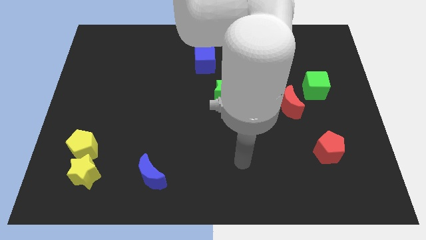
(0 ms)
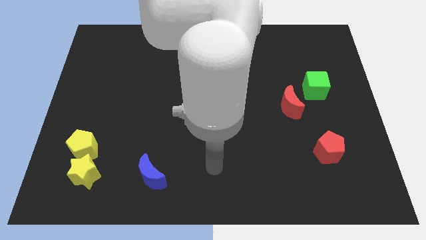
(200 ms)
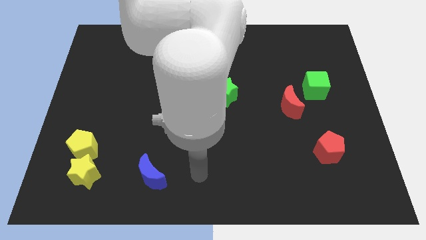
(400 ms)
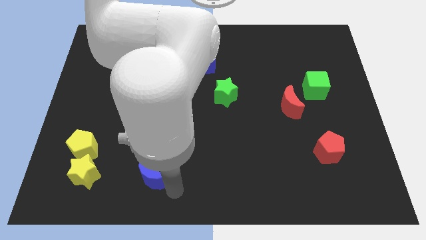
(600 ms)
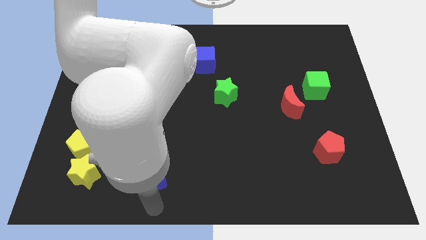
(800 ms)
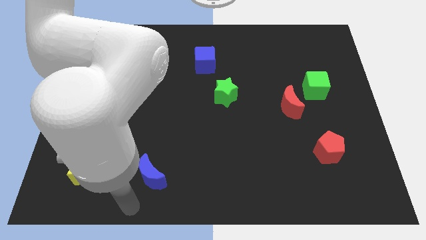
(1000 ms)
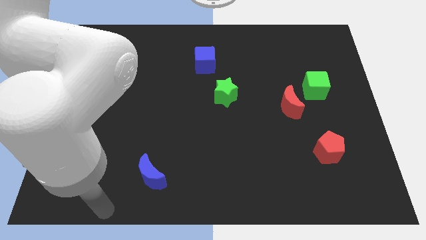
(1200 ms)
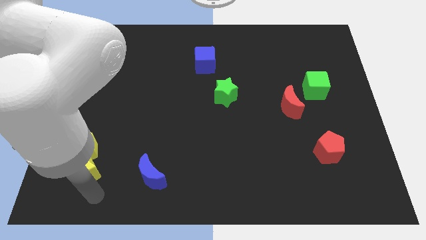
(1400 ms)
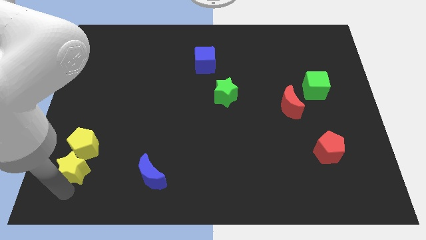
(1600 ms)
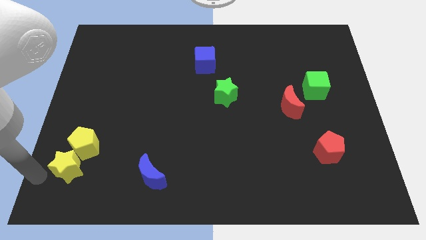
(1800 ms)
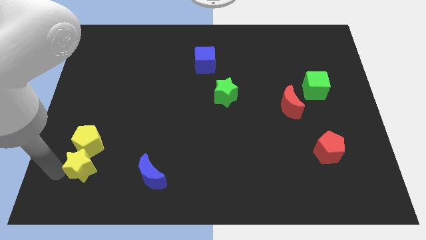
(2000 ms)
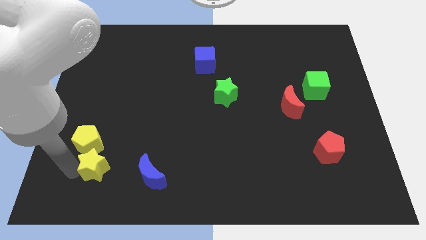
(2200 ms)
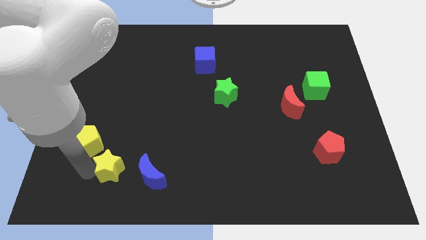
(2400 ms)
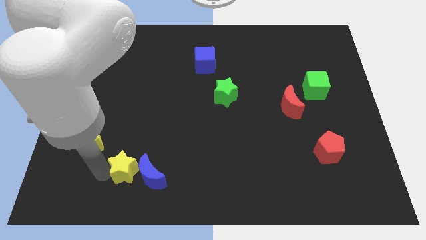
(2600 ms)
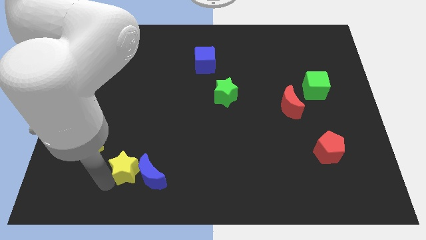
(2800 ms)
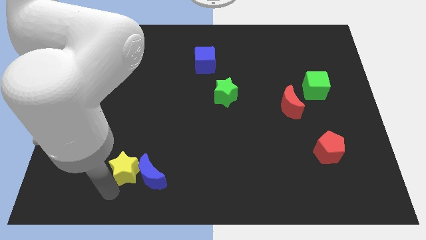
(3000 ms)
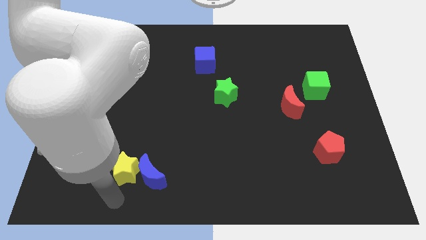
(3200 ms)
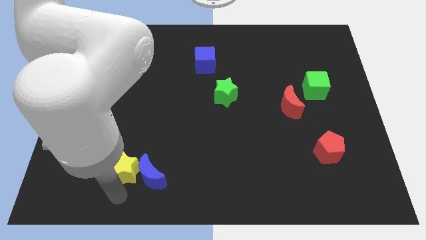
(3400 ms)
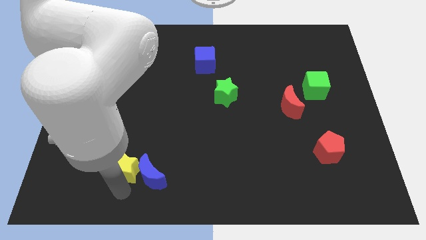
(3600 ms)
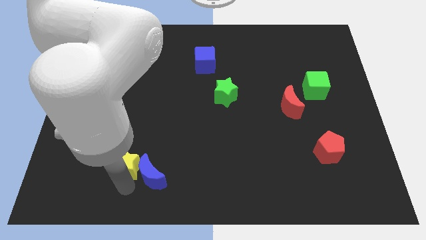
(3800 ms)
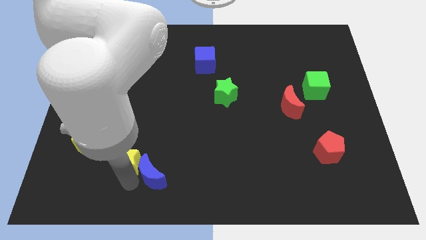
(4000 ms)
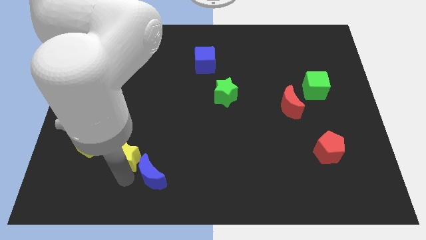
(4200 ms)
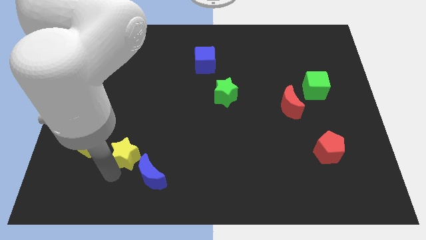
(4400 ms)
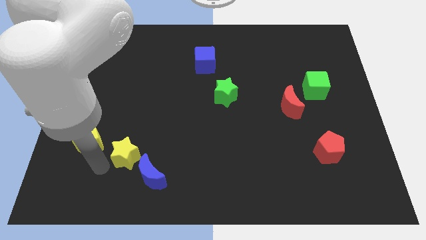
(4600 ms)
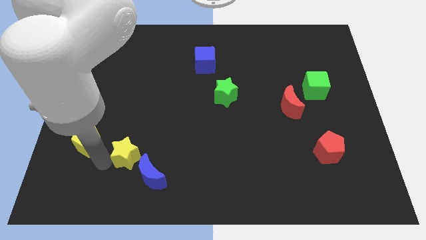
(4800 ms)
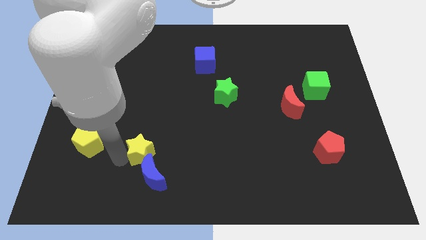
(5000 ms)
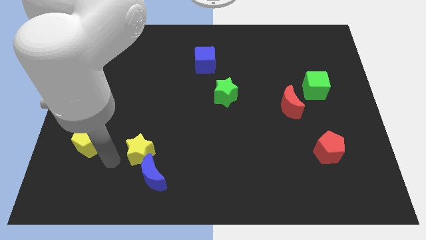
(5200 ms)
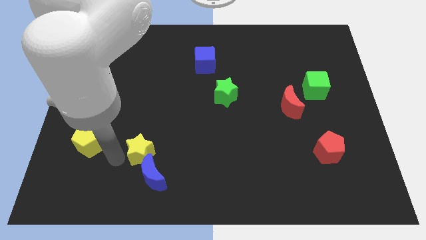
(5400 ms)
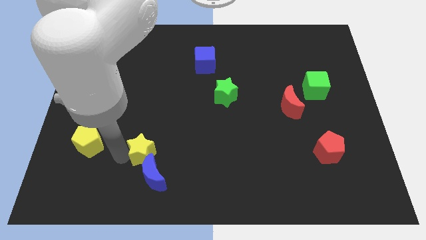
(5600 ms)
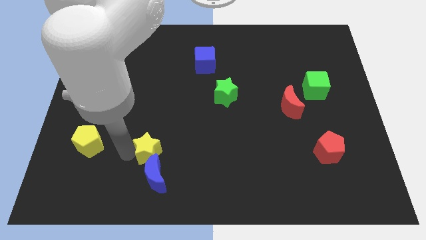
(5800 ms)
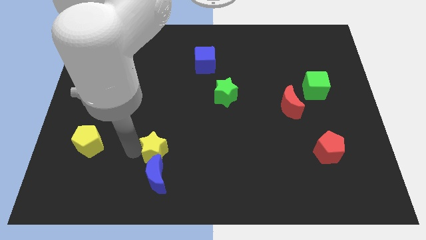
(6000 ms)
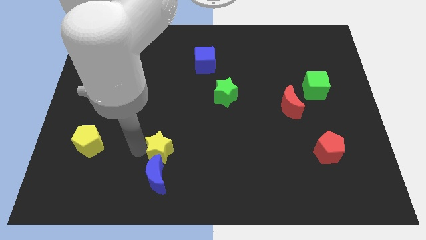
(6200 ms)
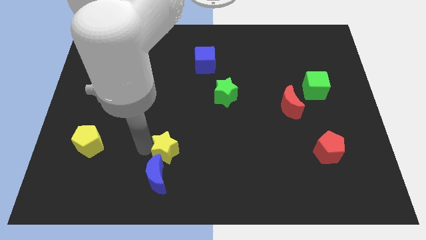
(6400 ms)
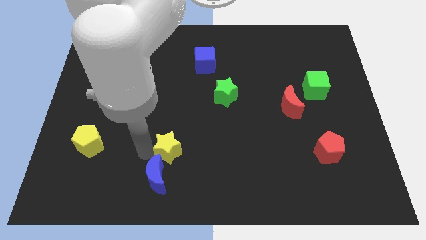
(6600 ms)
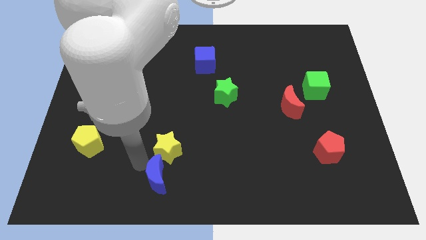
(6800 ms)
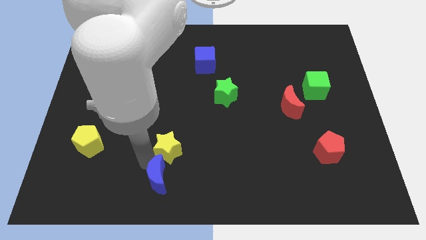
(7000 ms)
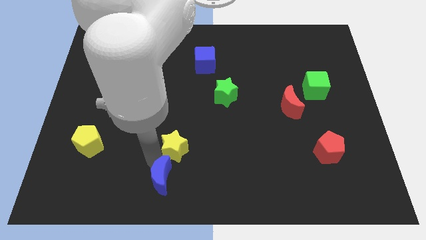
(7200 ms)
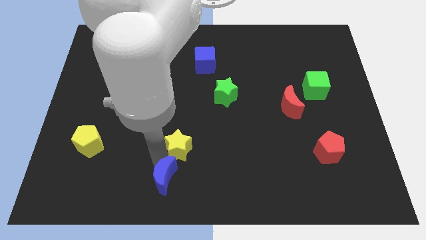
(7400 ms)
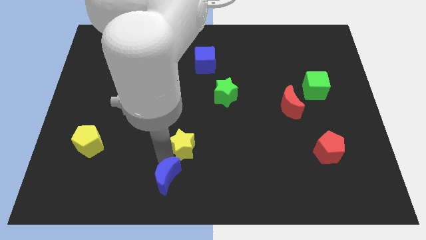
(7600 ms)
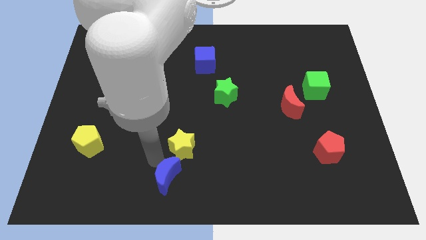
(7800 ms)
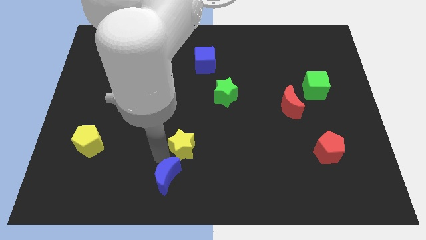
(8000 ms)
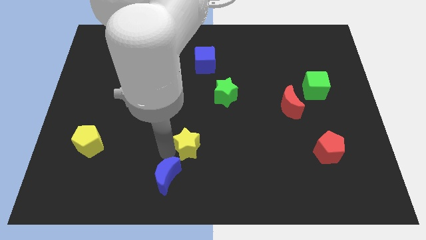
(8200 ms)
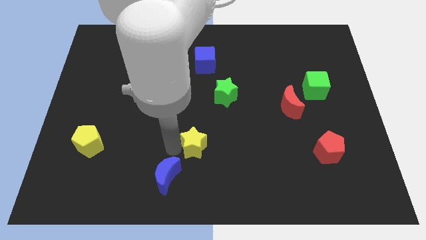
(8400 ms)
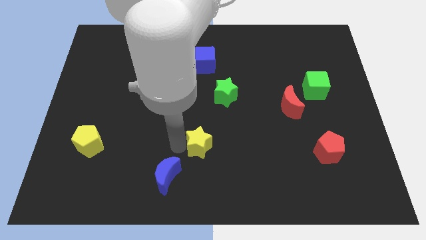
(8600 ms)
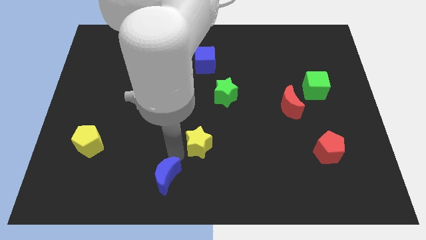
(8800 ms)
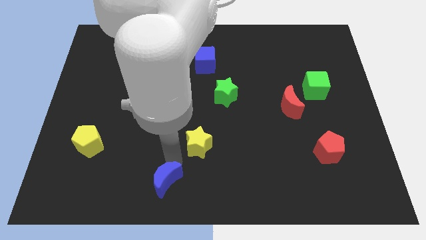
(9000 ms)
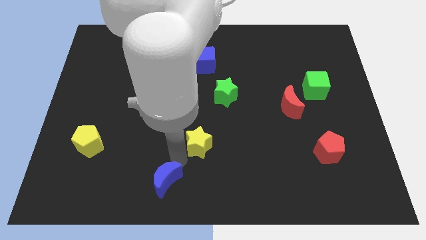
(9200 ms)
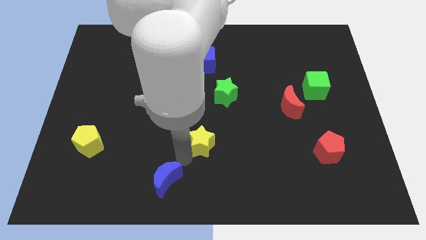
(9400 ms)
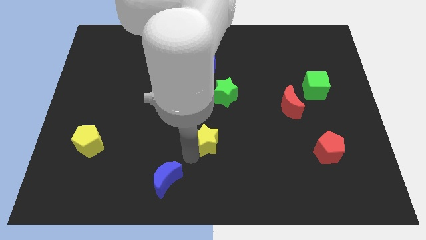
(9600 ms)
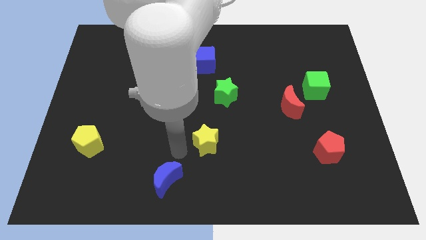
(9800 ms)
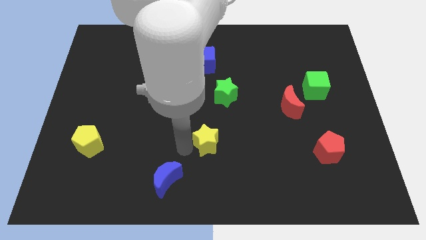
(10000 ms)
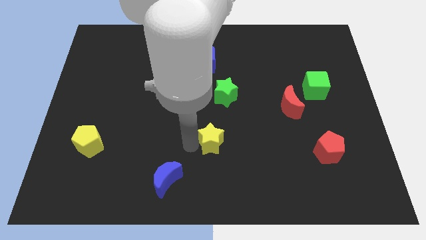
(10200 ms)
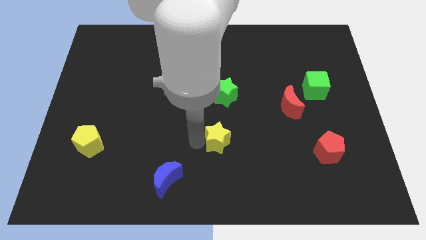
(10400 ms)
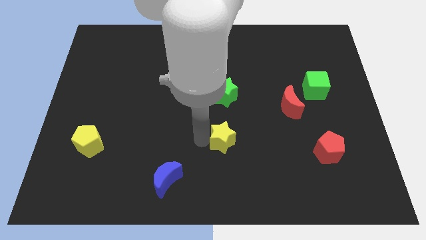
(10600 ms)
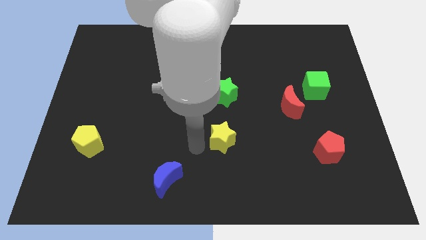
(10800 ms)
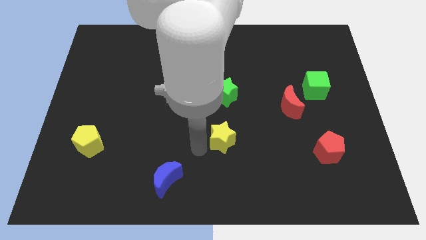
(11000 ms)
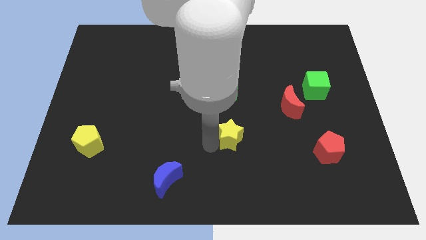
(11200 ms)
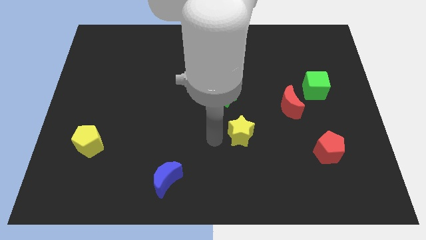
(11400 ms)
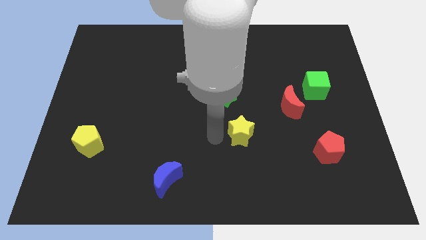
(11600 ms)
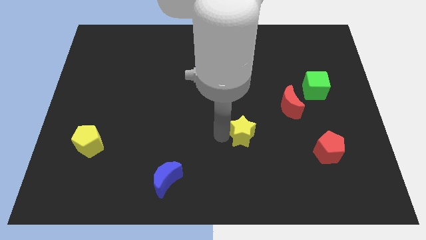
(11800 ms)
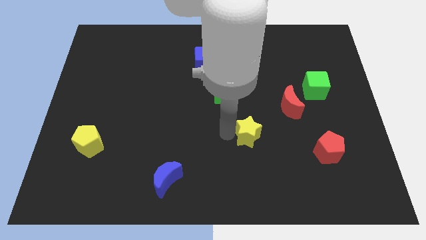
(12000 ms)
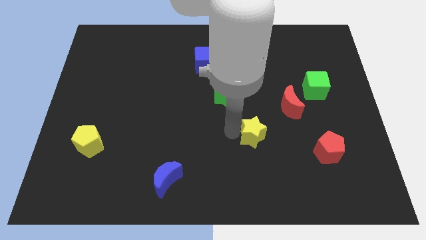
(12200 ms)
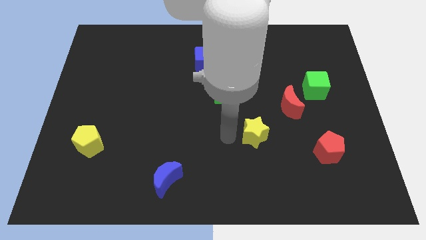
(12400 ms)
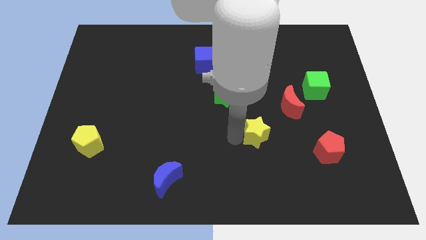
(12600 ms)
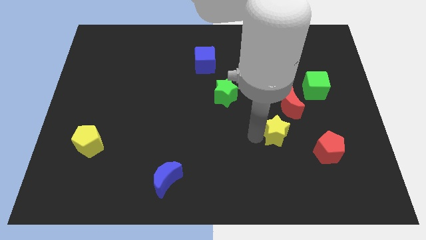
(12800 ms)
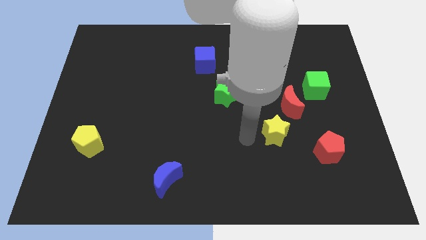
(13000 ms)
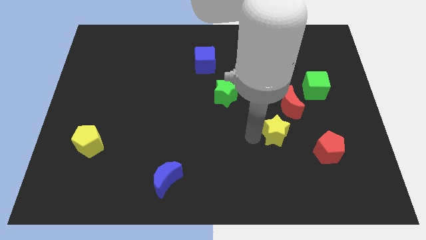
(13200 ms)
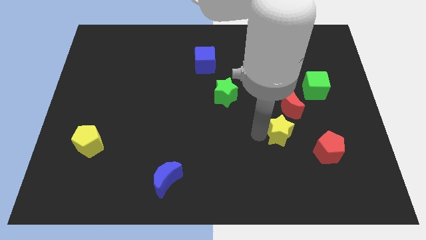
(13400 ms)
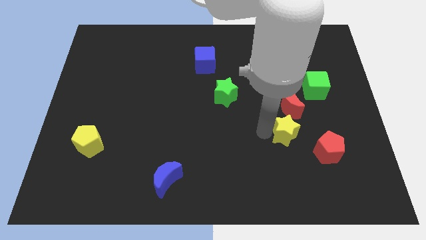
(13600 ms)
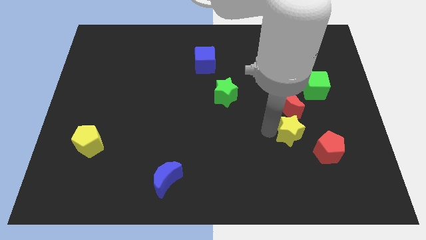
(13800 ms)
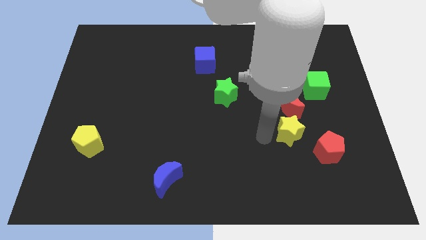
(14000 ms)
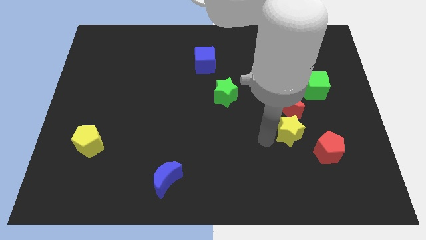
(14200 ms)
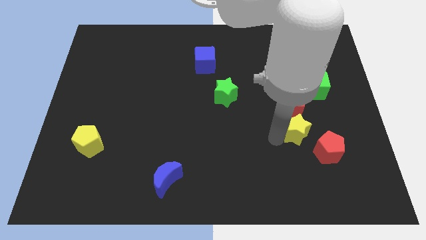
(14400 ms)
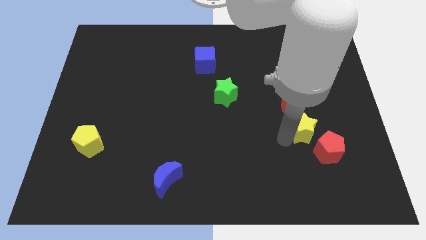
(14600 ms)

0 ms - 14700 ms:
push the yellow star to the top side of the red pentagon
